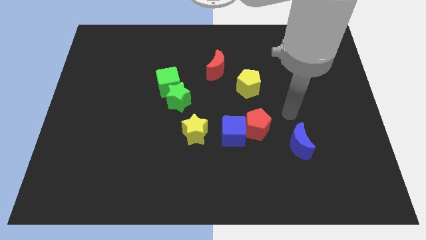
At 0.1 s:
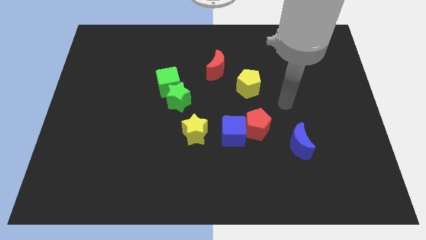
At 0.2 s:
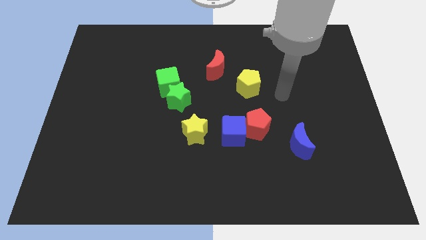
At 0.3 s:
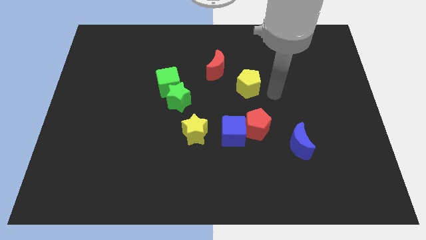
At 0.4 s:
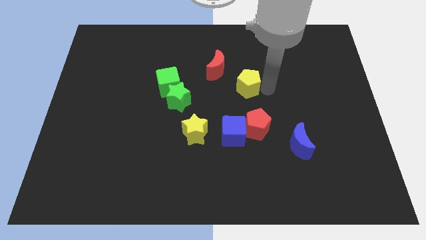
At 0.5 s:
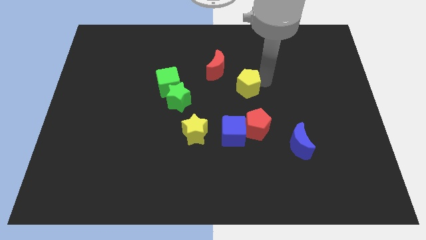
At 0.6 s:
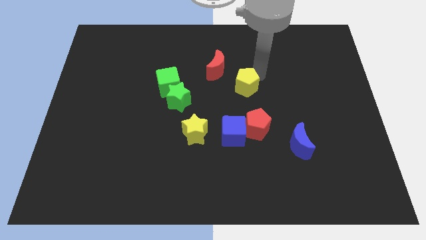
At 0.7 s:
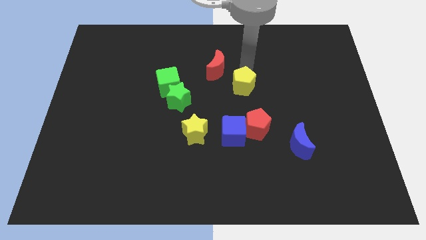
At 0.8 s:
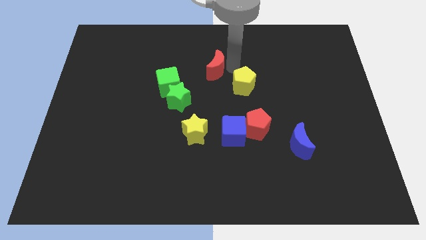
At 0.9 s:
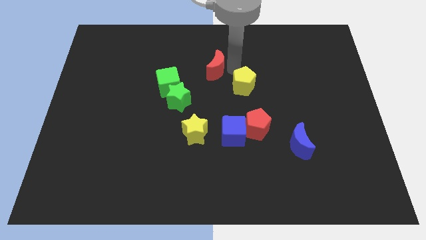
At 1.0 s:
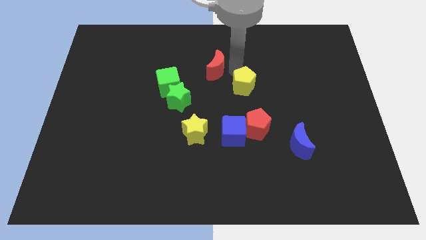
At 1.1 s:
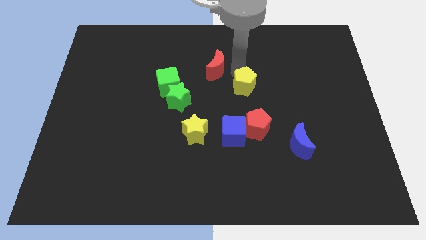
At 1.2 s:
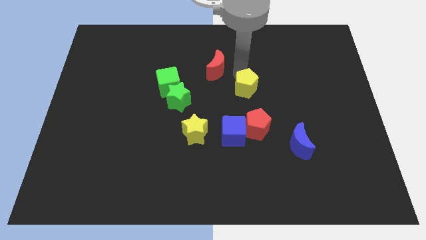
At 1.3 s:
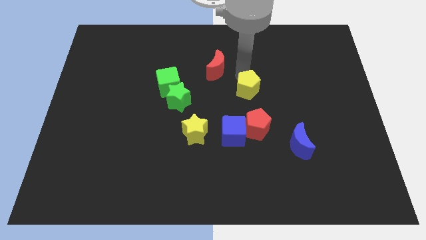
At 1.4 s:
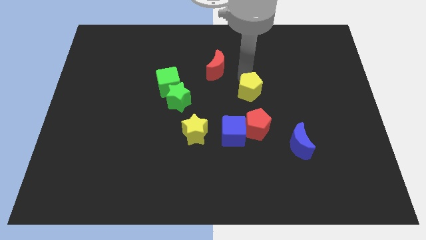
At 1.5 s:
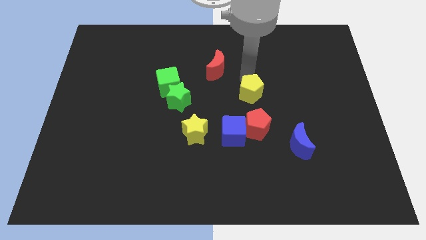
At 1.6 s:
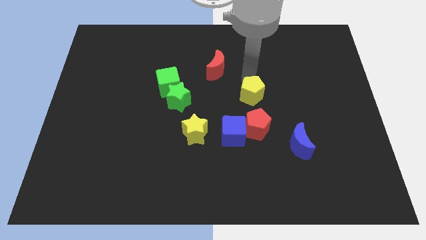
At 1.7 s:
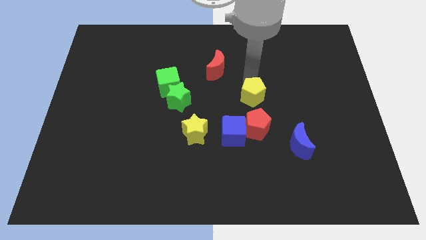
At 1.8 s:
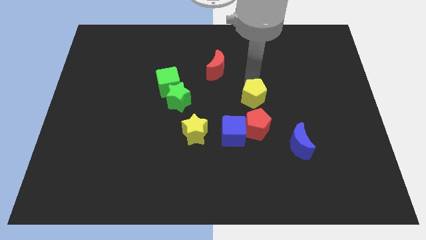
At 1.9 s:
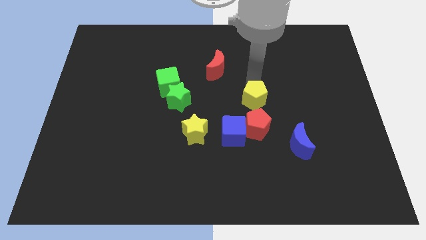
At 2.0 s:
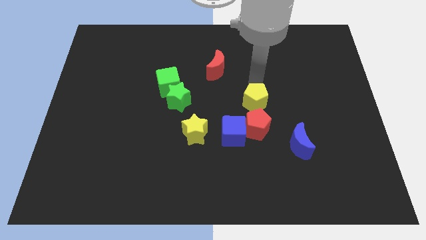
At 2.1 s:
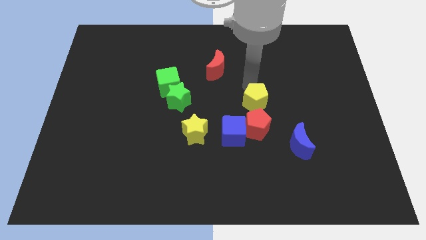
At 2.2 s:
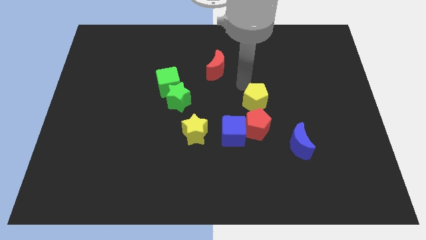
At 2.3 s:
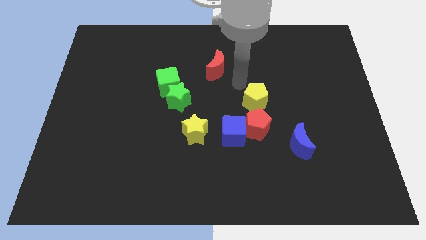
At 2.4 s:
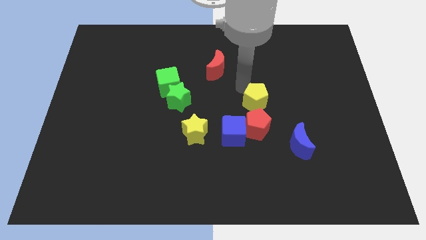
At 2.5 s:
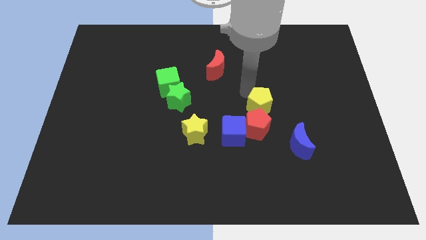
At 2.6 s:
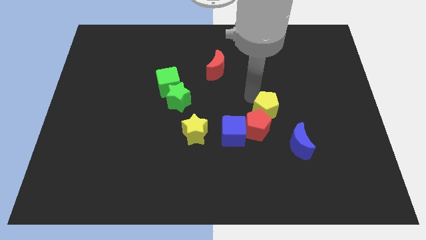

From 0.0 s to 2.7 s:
slide the yellow pentagon a bit down

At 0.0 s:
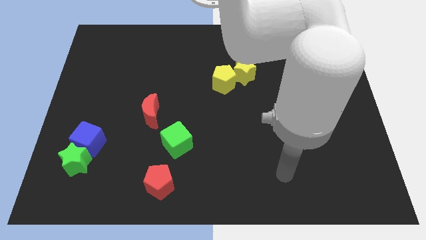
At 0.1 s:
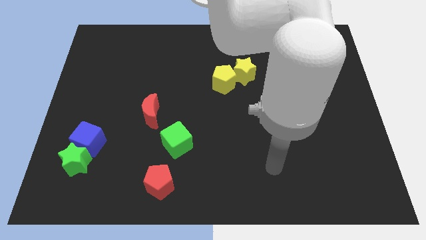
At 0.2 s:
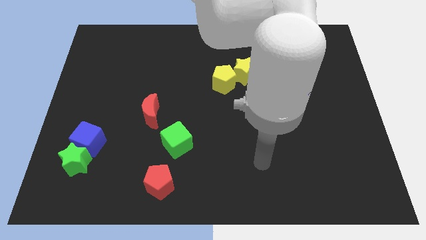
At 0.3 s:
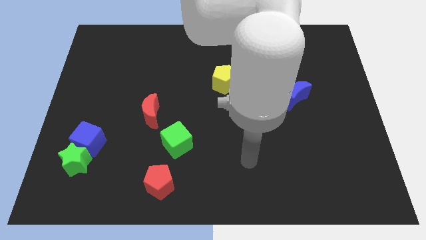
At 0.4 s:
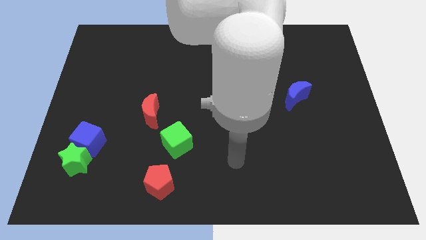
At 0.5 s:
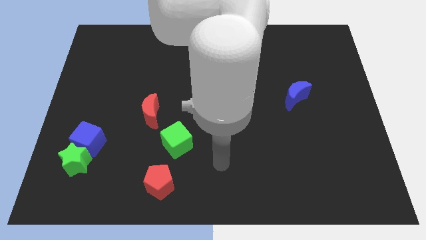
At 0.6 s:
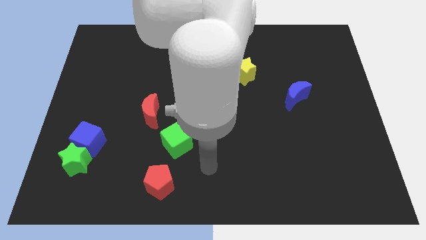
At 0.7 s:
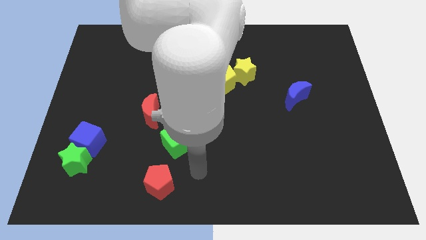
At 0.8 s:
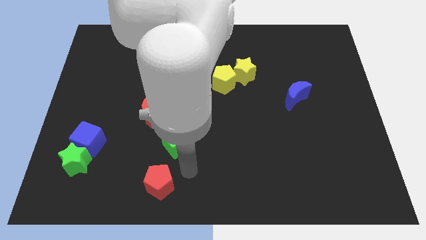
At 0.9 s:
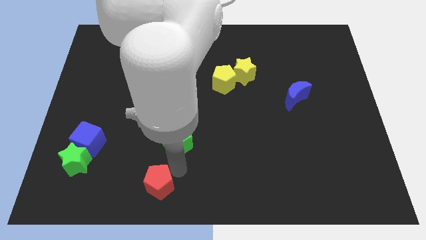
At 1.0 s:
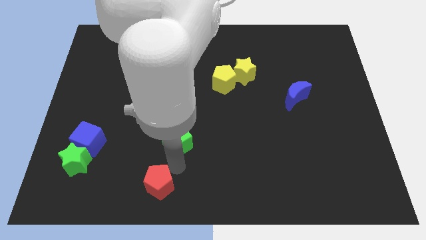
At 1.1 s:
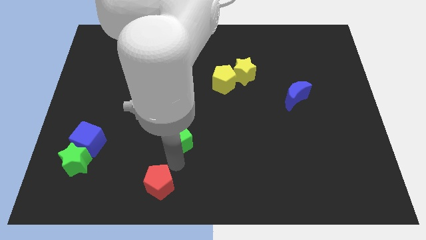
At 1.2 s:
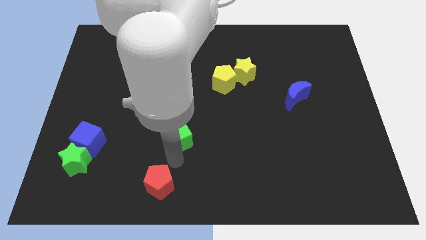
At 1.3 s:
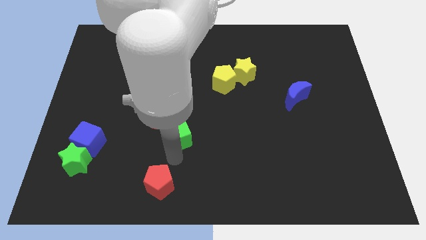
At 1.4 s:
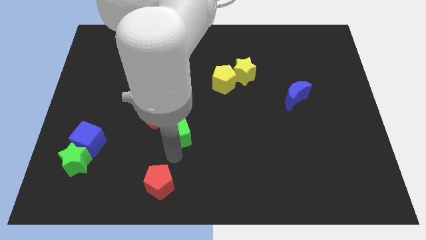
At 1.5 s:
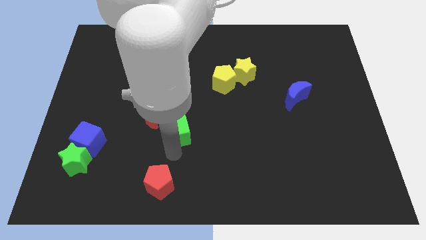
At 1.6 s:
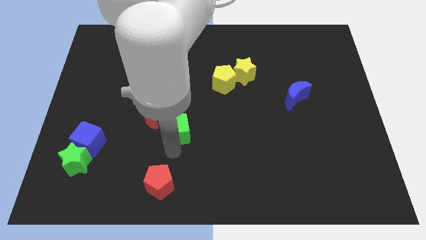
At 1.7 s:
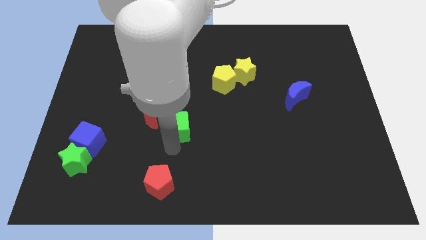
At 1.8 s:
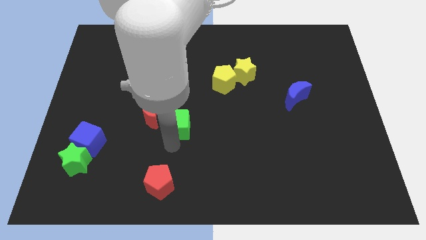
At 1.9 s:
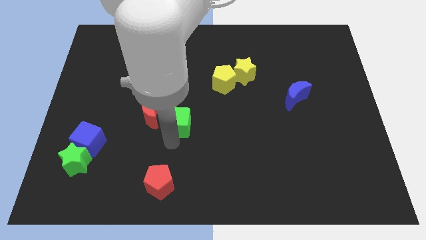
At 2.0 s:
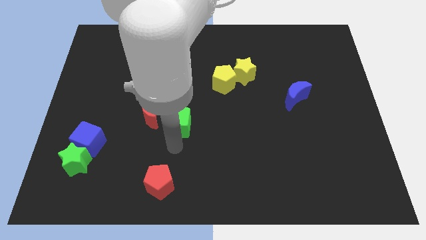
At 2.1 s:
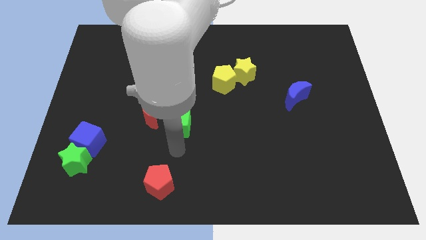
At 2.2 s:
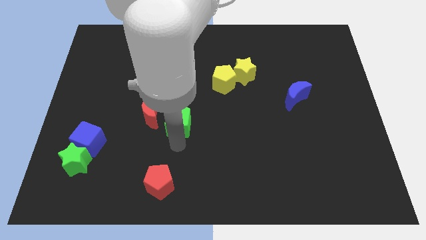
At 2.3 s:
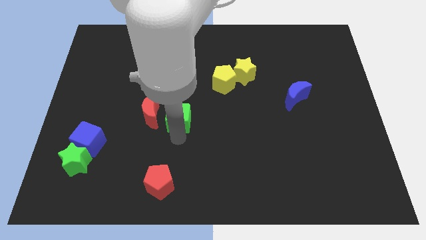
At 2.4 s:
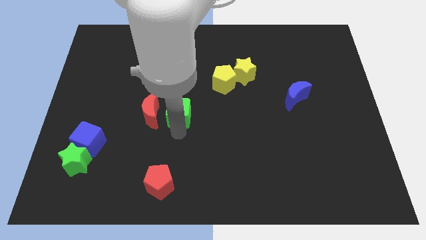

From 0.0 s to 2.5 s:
push the green cube slightly upwards

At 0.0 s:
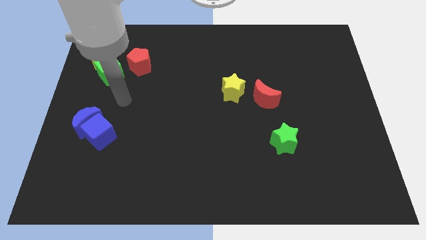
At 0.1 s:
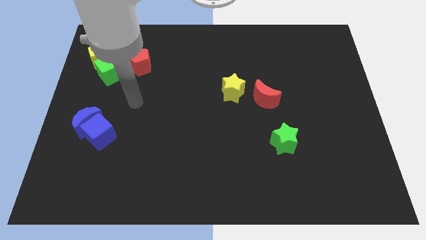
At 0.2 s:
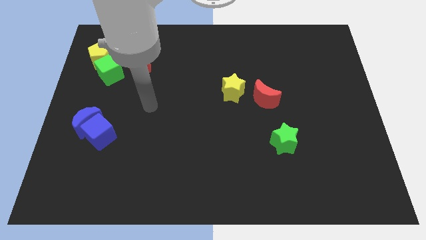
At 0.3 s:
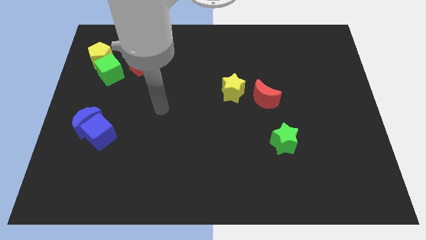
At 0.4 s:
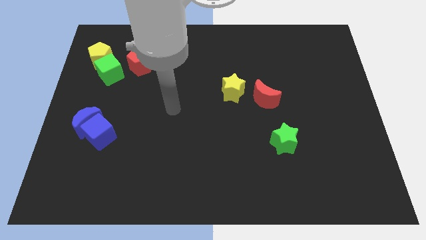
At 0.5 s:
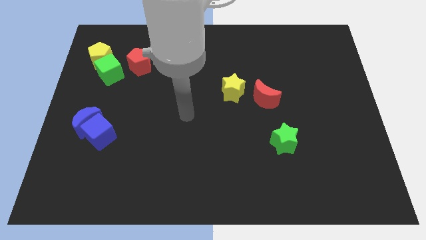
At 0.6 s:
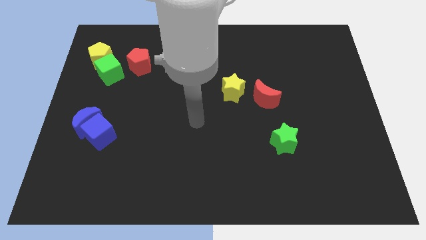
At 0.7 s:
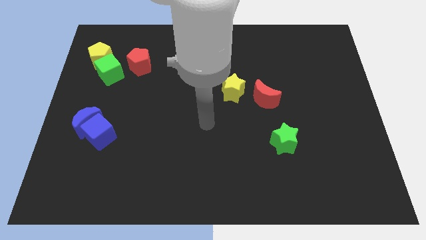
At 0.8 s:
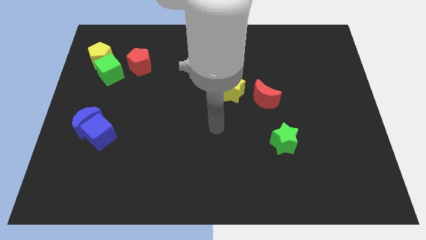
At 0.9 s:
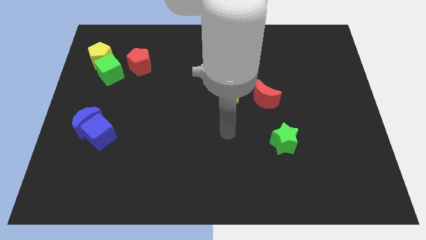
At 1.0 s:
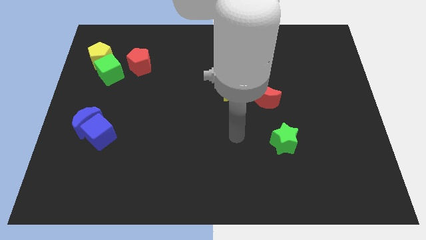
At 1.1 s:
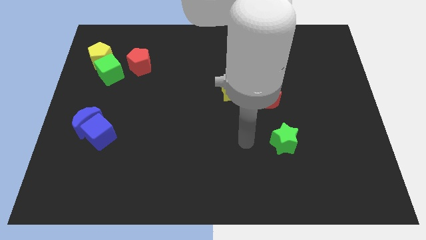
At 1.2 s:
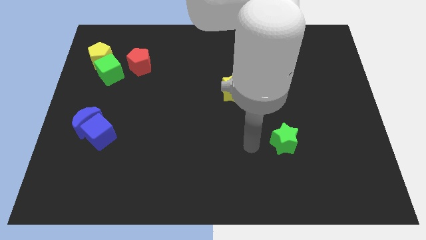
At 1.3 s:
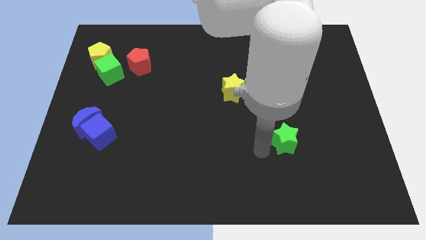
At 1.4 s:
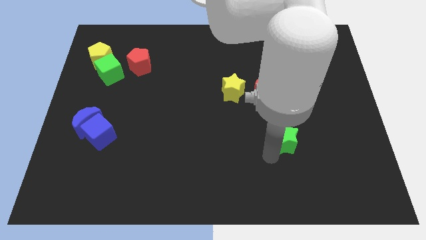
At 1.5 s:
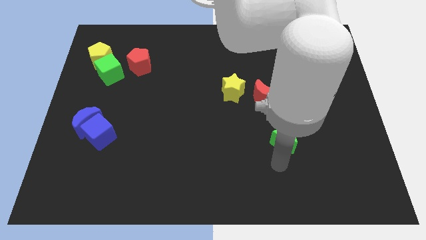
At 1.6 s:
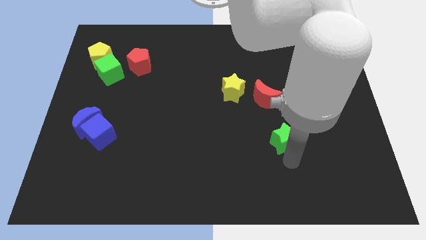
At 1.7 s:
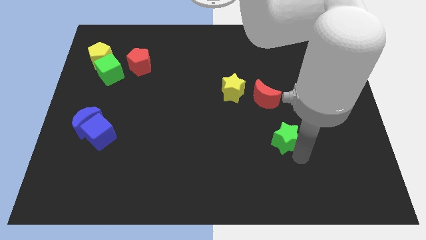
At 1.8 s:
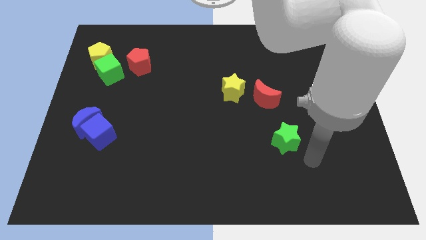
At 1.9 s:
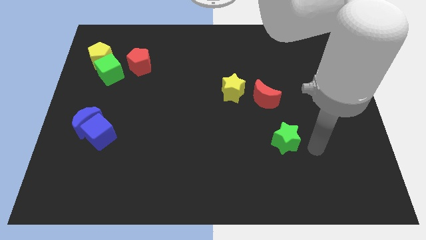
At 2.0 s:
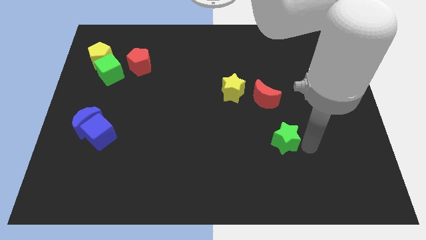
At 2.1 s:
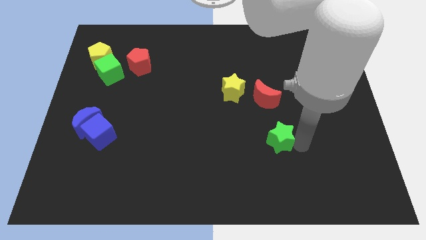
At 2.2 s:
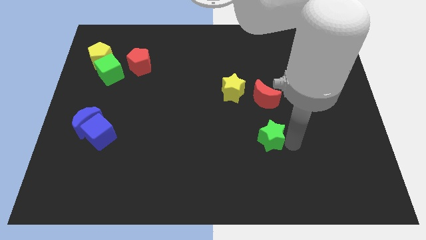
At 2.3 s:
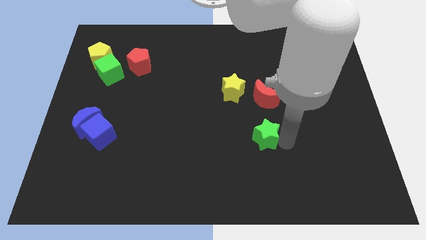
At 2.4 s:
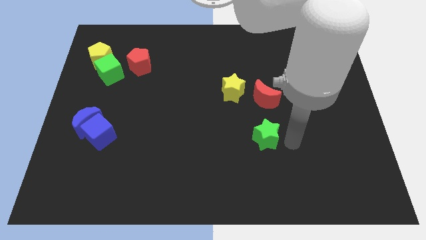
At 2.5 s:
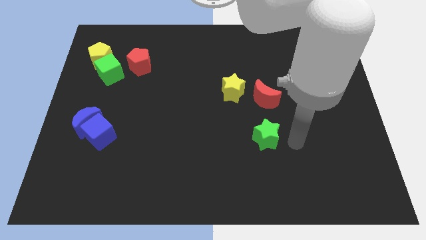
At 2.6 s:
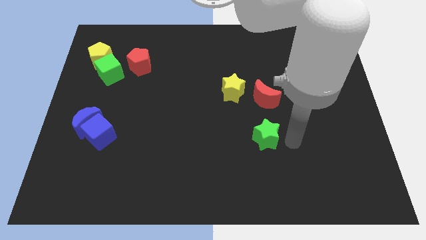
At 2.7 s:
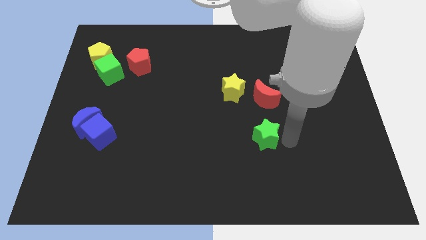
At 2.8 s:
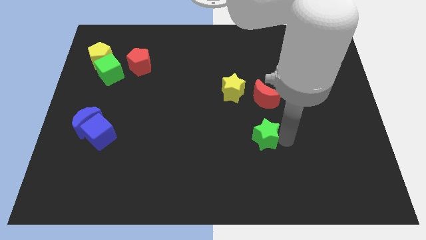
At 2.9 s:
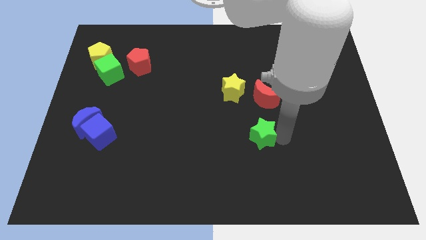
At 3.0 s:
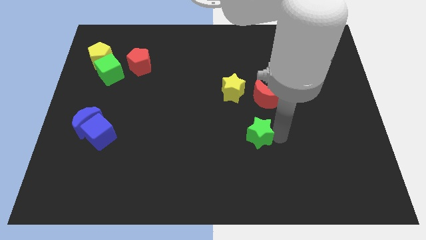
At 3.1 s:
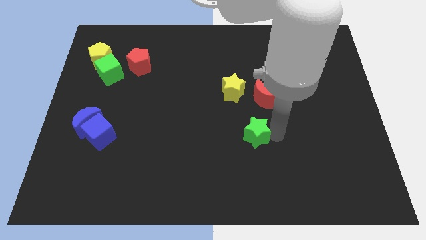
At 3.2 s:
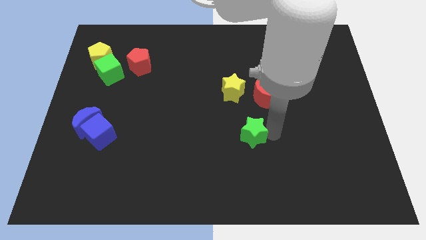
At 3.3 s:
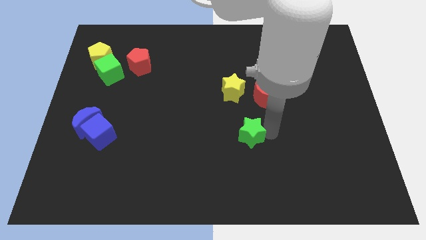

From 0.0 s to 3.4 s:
slightly slide the green star left
